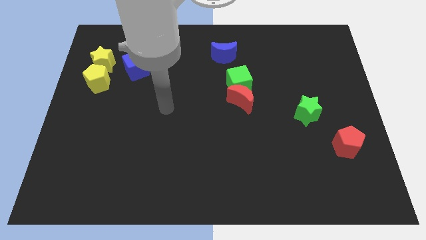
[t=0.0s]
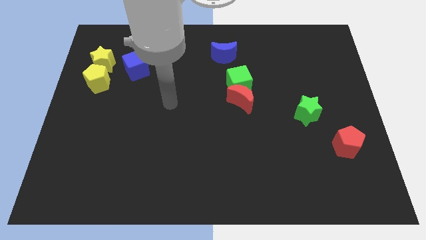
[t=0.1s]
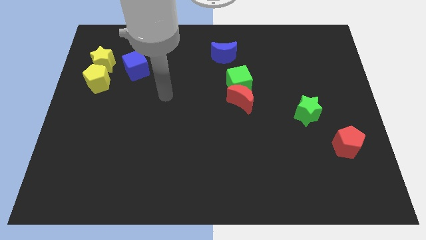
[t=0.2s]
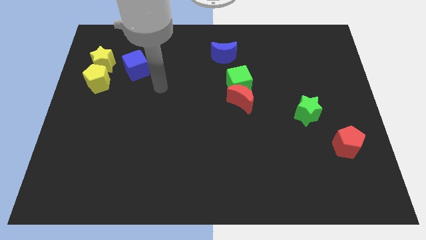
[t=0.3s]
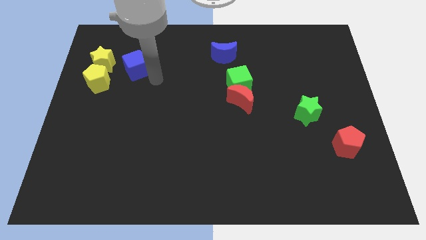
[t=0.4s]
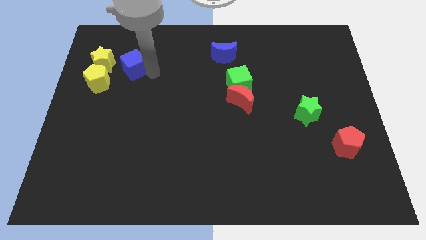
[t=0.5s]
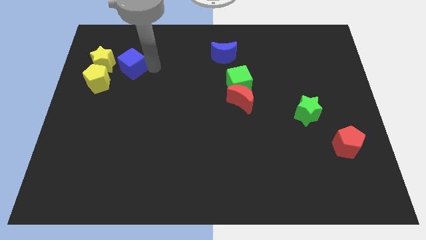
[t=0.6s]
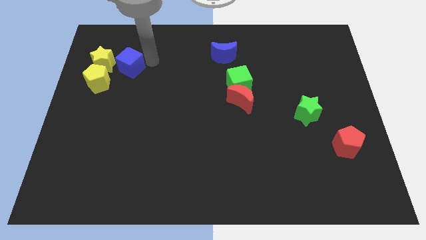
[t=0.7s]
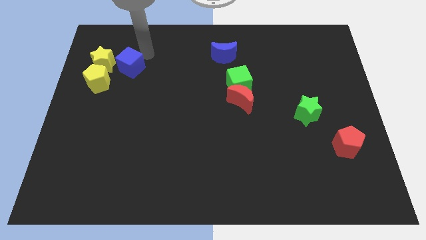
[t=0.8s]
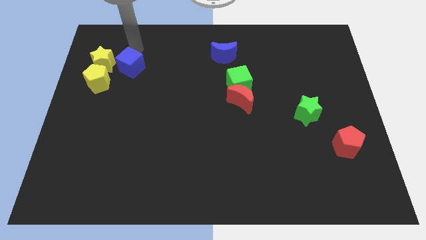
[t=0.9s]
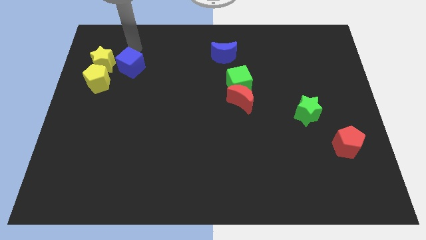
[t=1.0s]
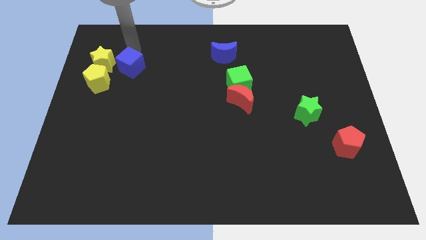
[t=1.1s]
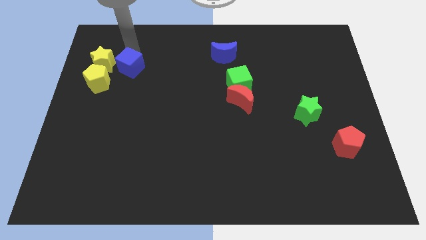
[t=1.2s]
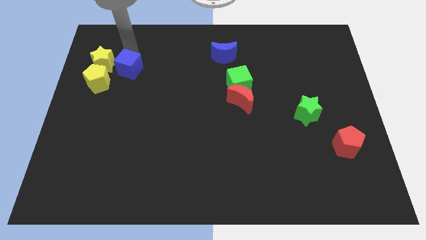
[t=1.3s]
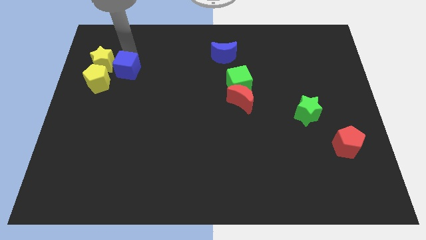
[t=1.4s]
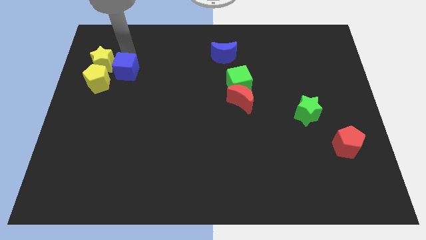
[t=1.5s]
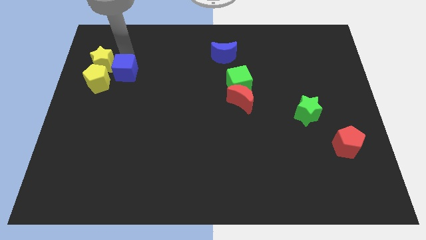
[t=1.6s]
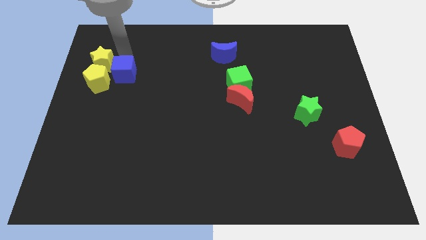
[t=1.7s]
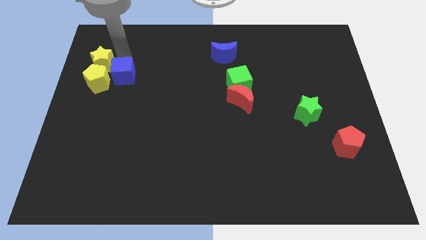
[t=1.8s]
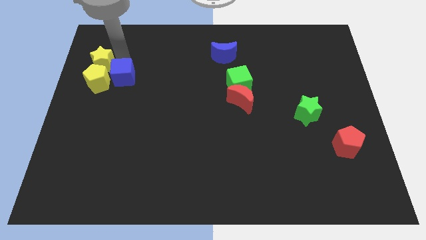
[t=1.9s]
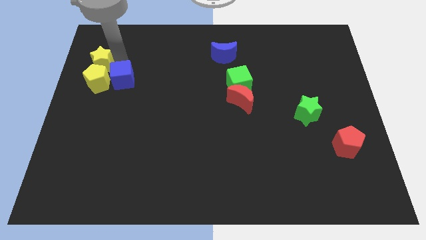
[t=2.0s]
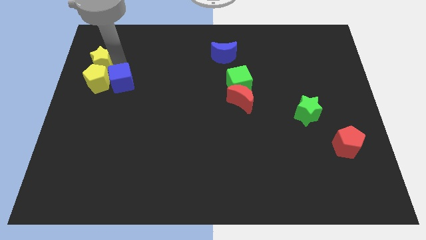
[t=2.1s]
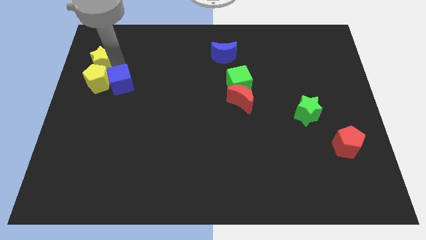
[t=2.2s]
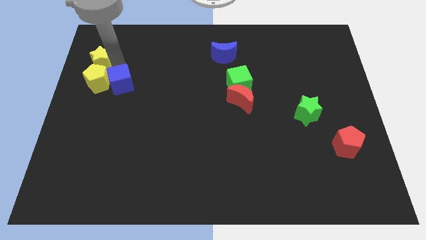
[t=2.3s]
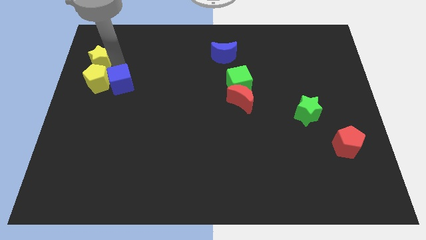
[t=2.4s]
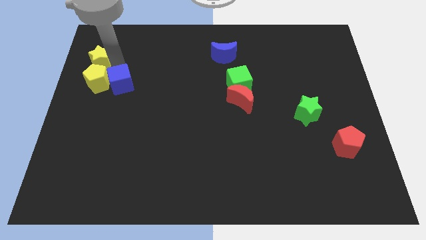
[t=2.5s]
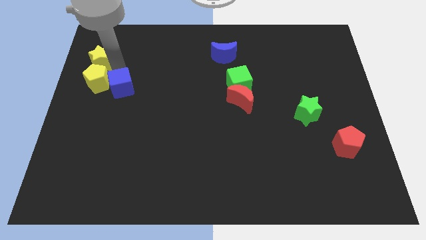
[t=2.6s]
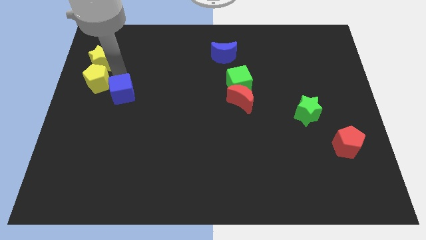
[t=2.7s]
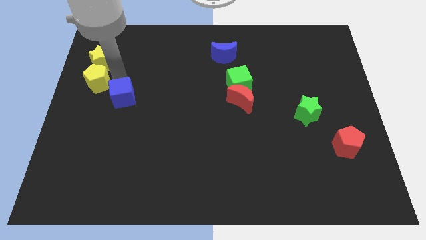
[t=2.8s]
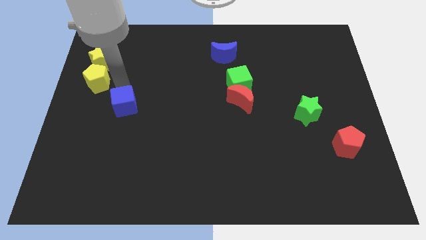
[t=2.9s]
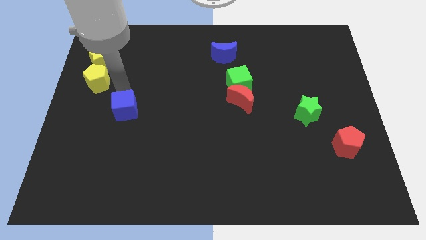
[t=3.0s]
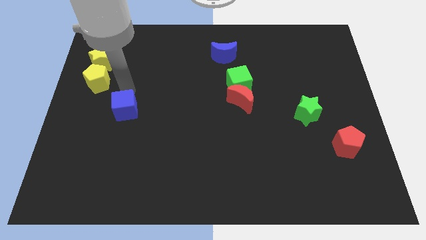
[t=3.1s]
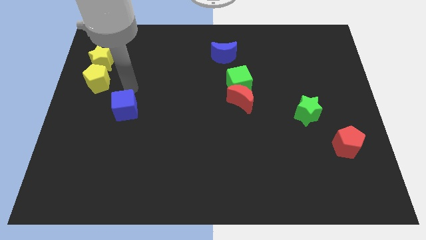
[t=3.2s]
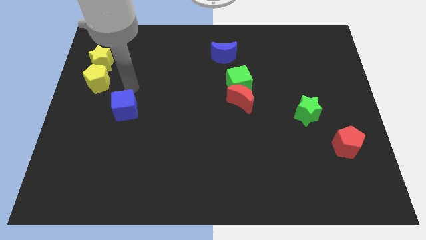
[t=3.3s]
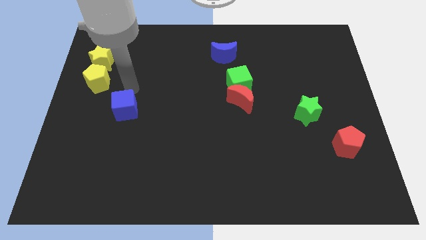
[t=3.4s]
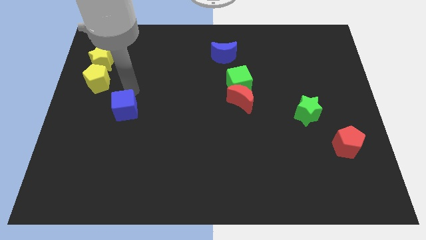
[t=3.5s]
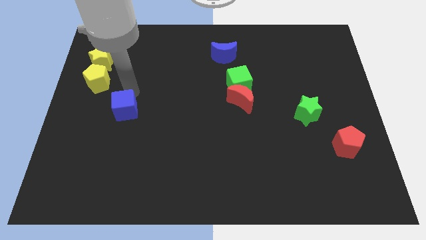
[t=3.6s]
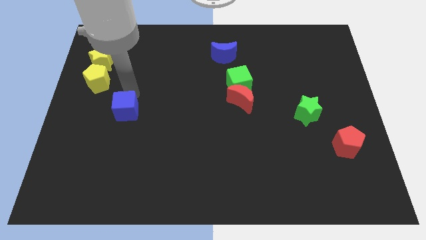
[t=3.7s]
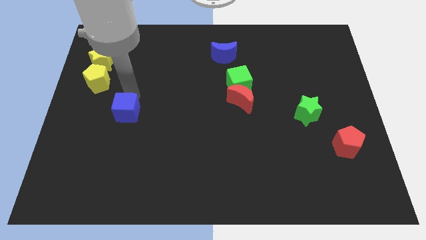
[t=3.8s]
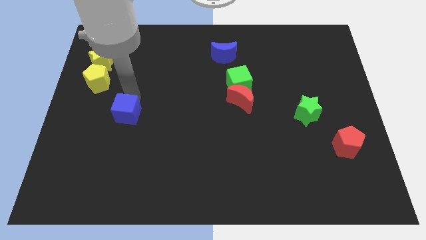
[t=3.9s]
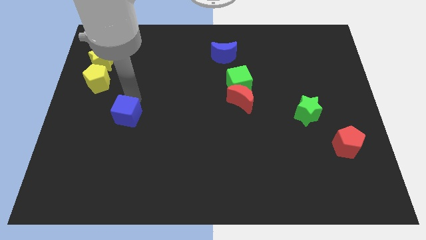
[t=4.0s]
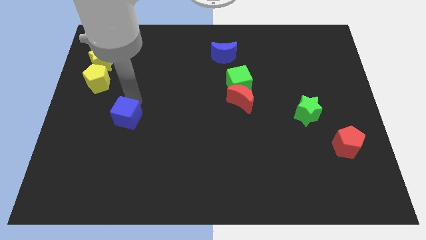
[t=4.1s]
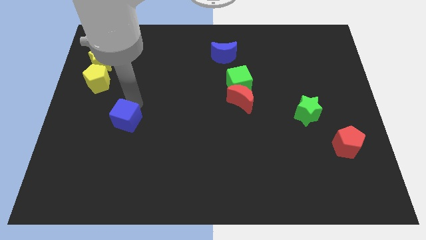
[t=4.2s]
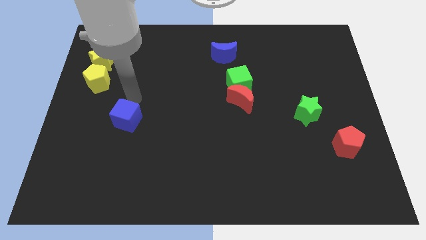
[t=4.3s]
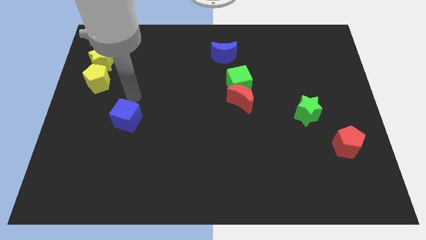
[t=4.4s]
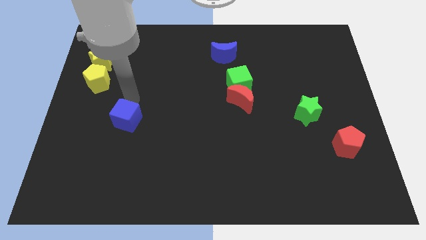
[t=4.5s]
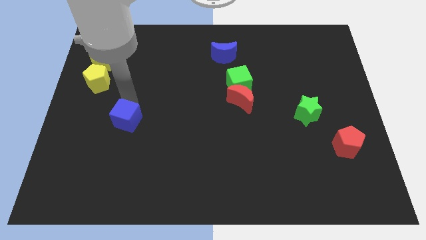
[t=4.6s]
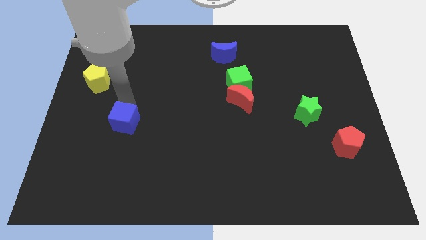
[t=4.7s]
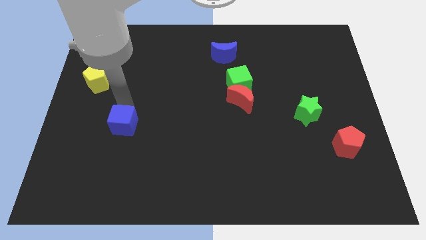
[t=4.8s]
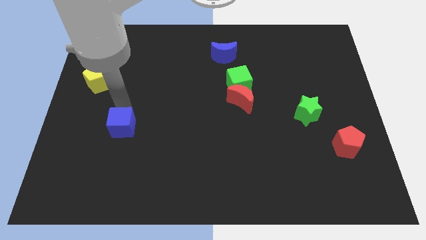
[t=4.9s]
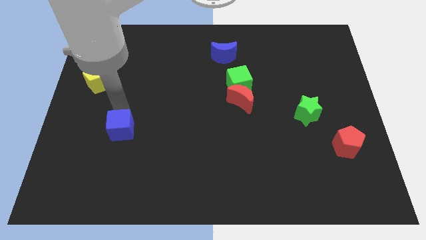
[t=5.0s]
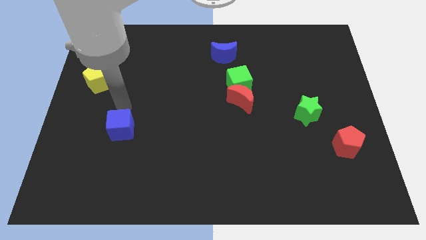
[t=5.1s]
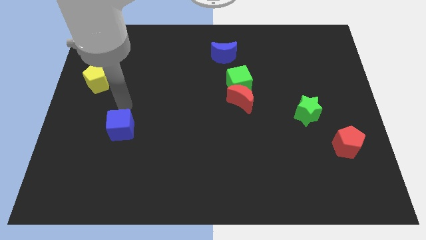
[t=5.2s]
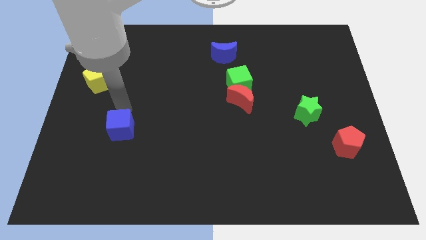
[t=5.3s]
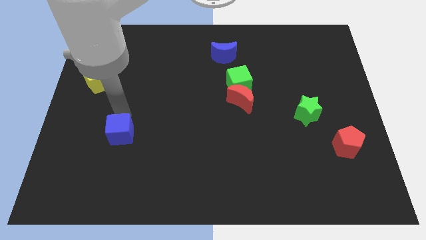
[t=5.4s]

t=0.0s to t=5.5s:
push the blue cube down

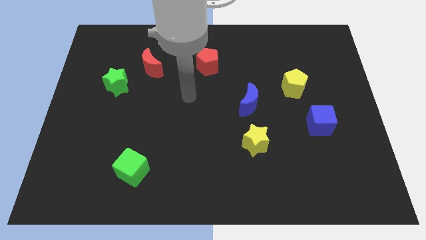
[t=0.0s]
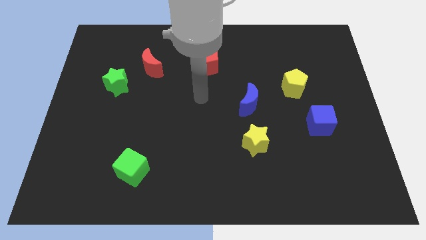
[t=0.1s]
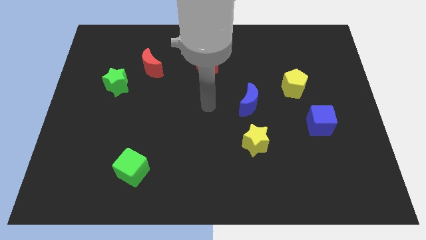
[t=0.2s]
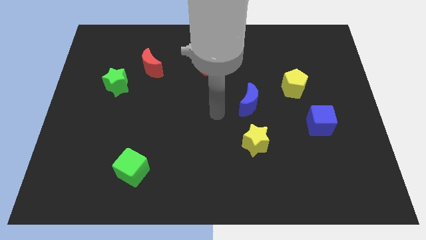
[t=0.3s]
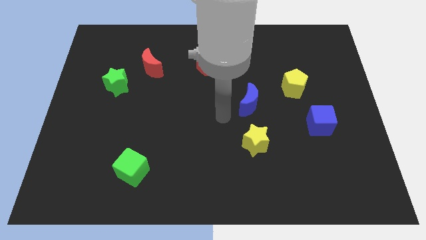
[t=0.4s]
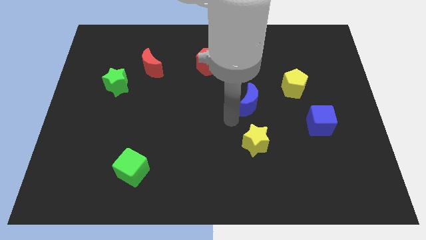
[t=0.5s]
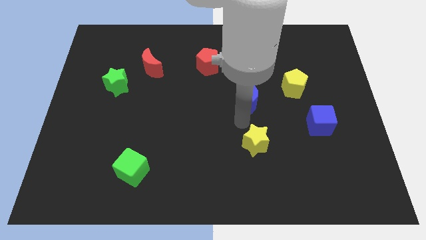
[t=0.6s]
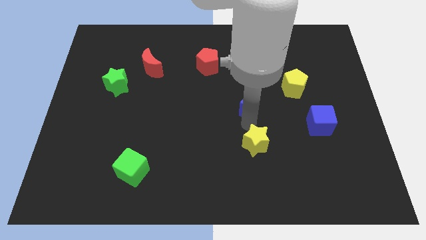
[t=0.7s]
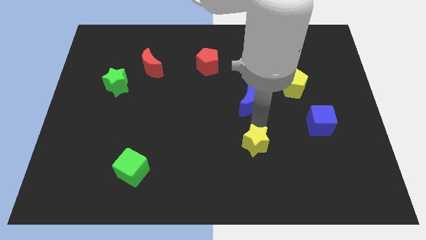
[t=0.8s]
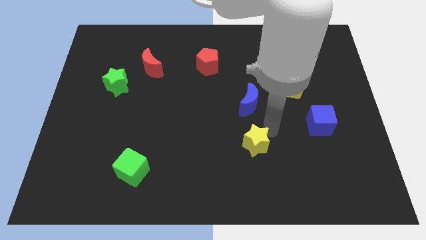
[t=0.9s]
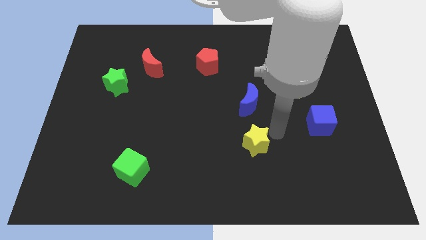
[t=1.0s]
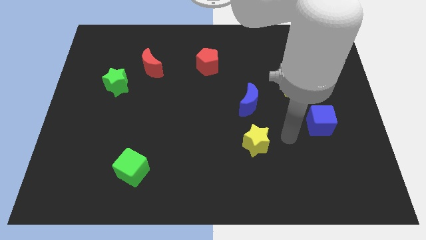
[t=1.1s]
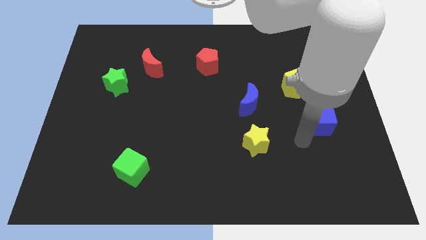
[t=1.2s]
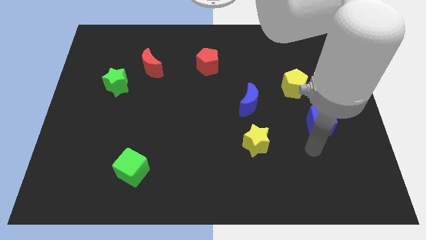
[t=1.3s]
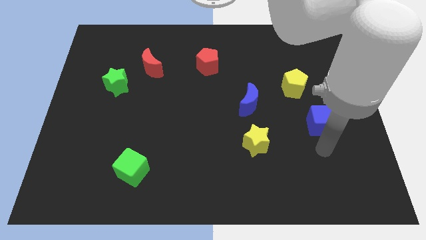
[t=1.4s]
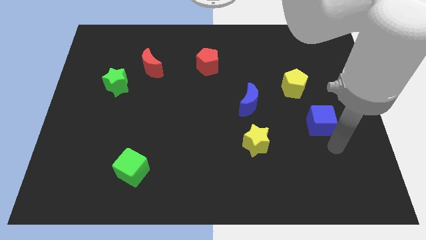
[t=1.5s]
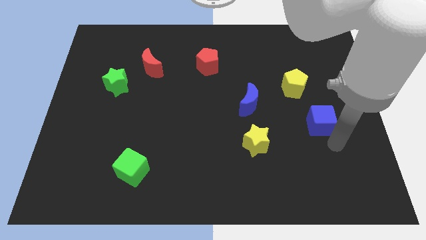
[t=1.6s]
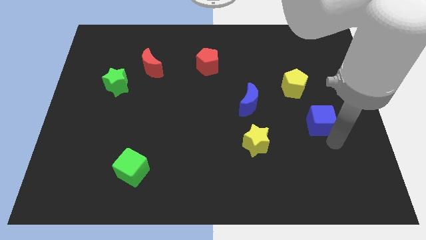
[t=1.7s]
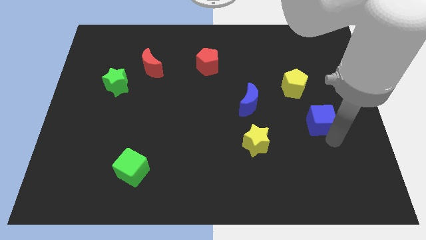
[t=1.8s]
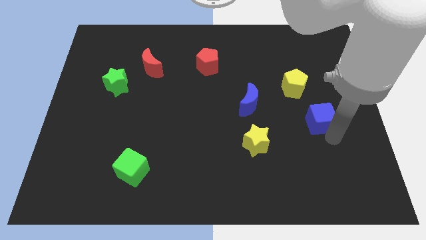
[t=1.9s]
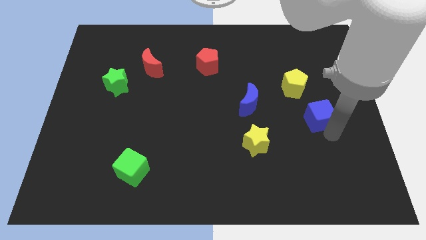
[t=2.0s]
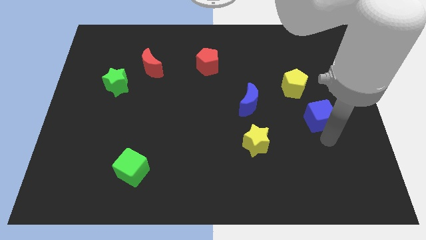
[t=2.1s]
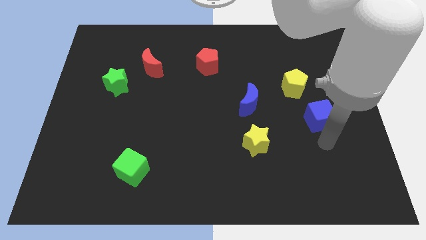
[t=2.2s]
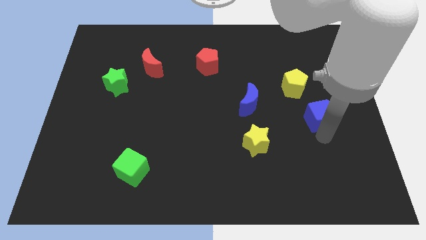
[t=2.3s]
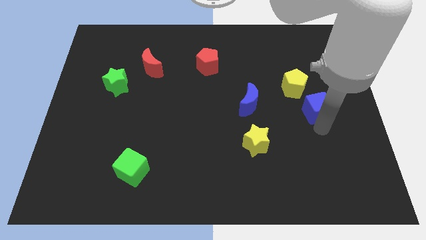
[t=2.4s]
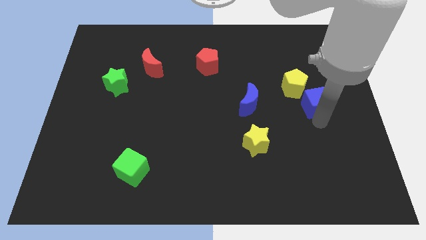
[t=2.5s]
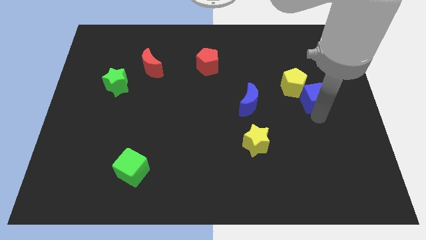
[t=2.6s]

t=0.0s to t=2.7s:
slightly move the blue cube up
